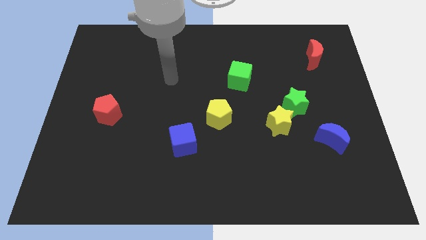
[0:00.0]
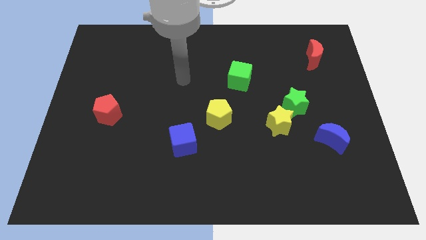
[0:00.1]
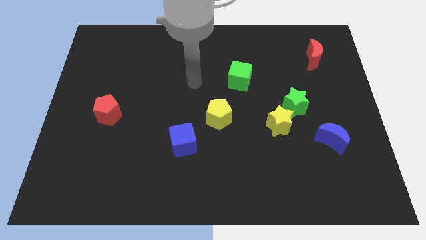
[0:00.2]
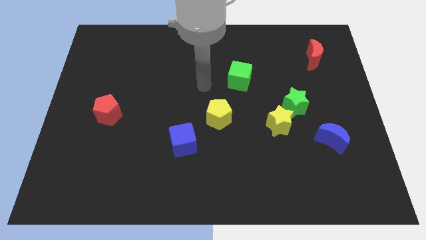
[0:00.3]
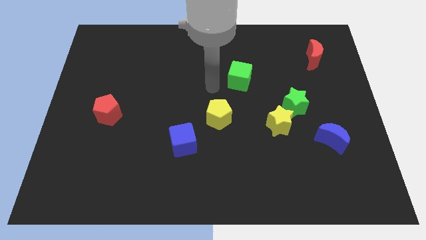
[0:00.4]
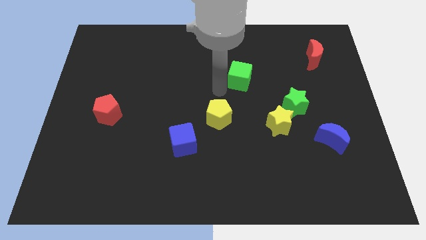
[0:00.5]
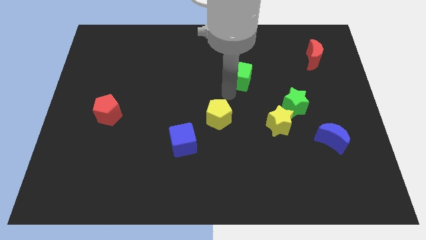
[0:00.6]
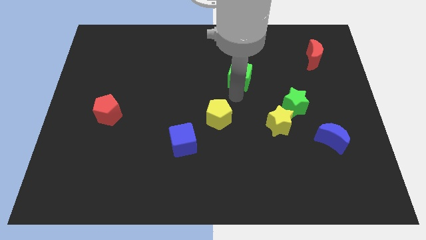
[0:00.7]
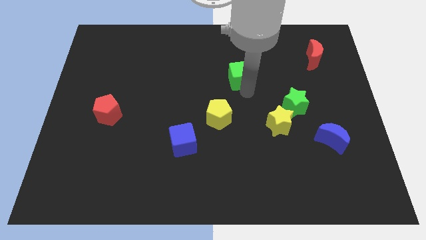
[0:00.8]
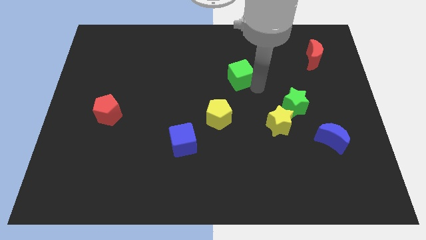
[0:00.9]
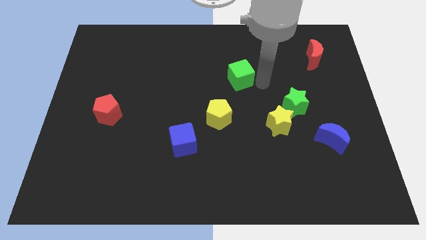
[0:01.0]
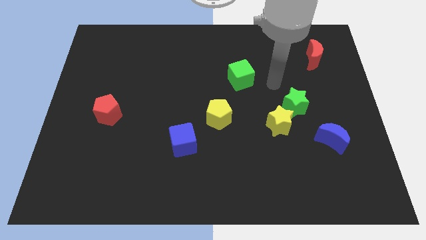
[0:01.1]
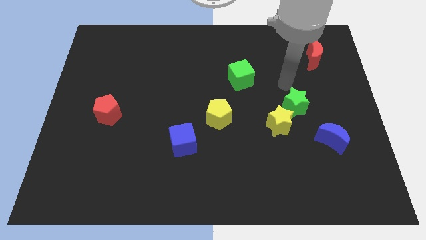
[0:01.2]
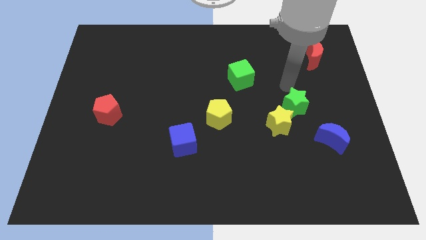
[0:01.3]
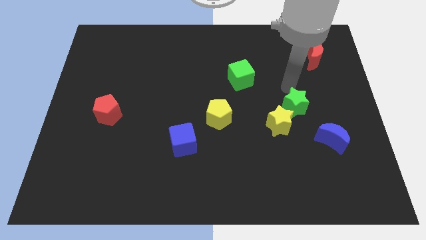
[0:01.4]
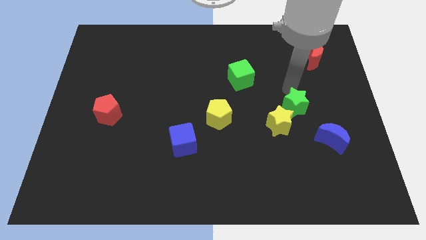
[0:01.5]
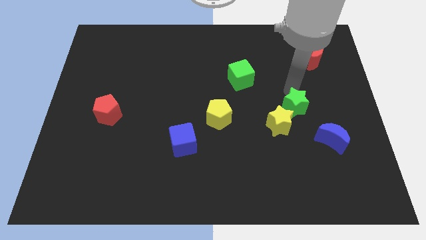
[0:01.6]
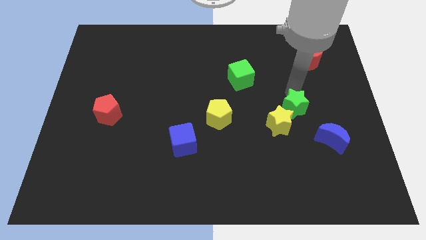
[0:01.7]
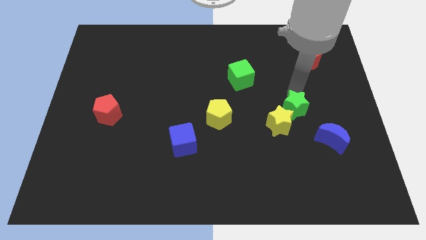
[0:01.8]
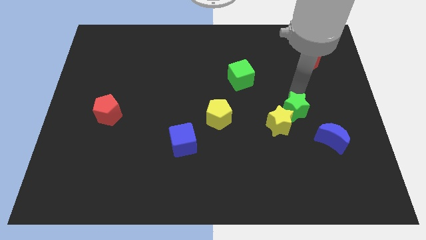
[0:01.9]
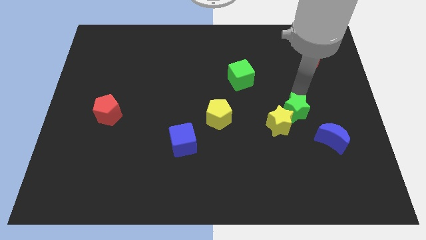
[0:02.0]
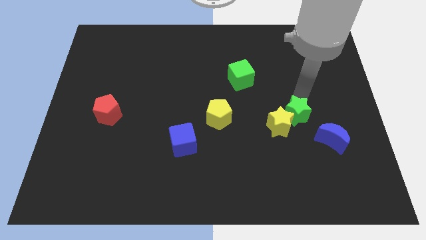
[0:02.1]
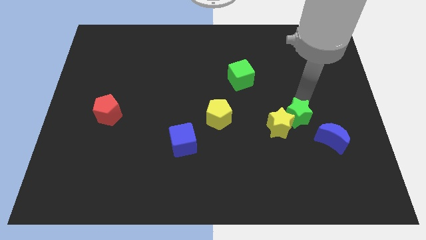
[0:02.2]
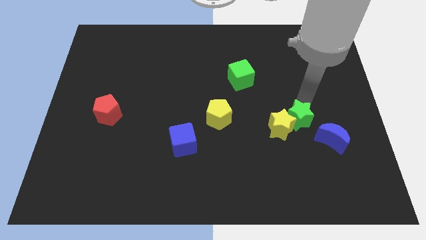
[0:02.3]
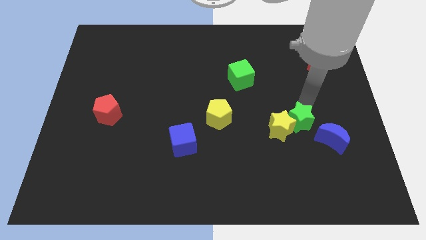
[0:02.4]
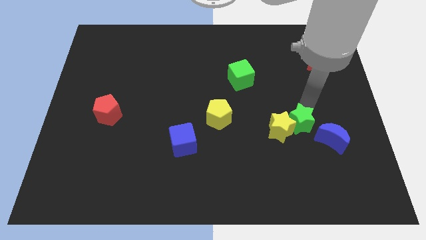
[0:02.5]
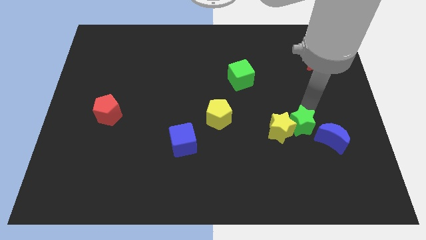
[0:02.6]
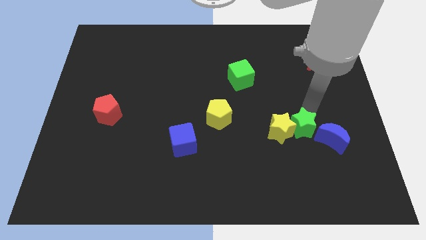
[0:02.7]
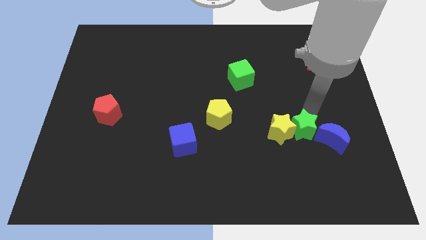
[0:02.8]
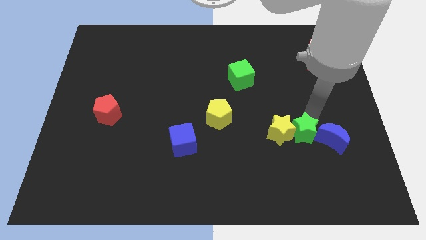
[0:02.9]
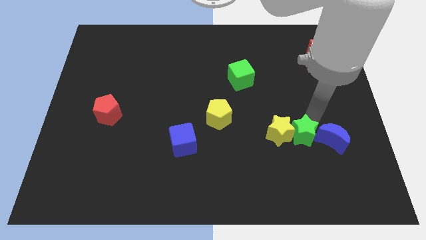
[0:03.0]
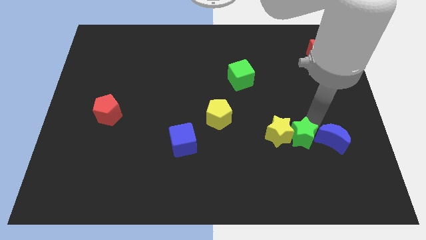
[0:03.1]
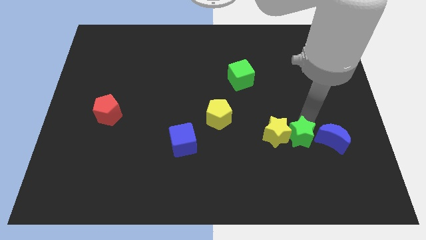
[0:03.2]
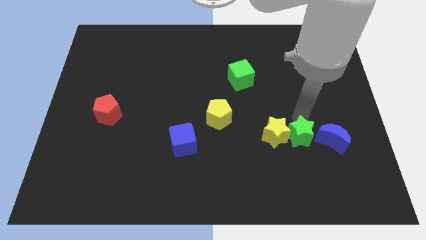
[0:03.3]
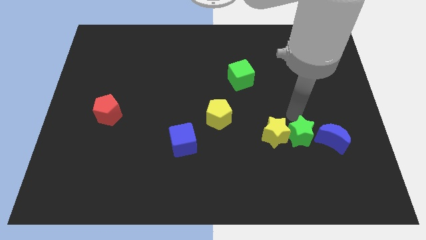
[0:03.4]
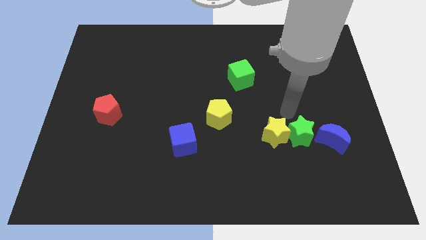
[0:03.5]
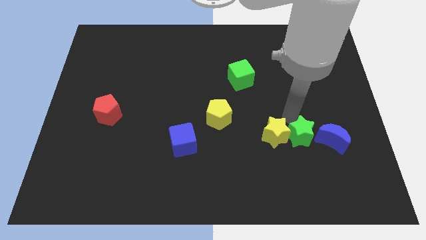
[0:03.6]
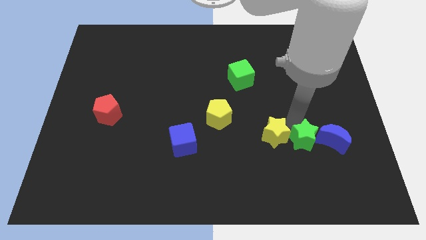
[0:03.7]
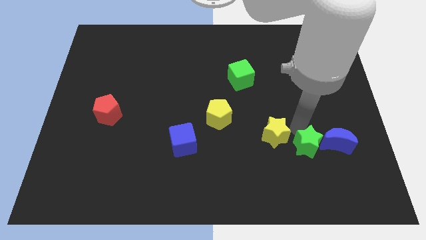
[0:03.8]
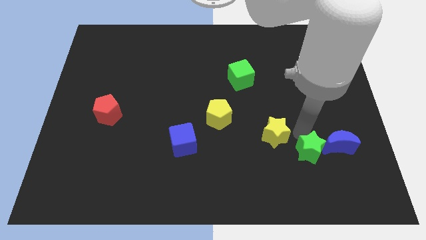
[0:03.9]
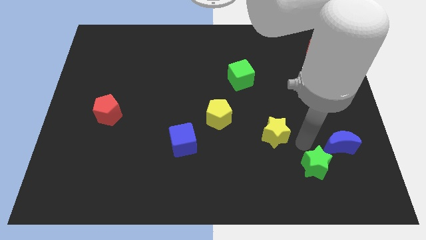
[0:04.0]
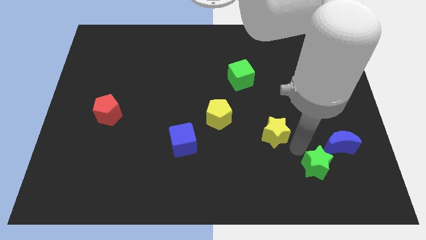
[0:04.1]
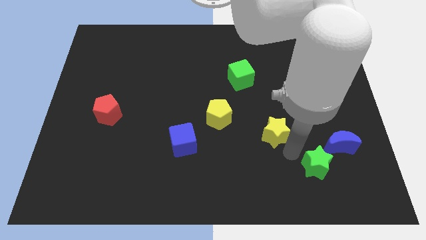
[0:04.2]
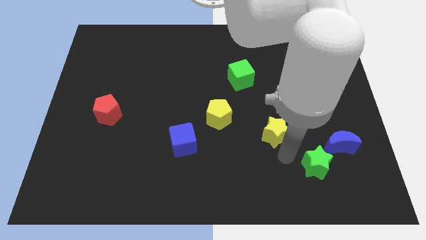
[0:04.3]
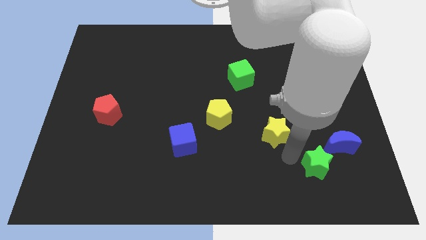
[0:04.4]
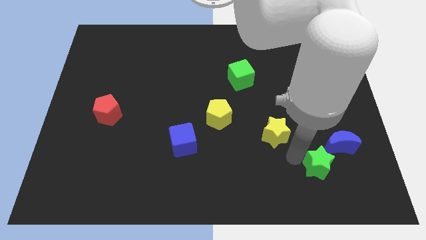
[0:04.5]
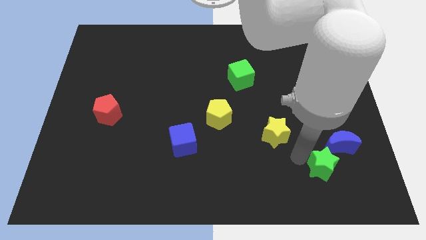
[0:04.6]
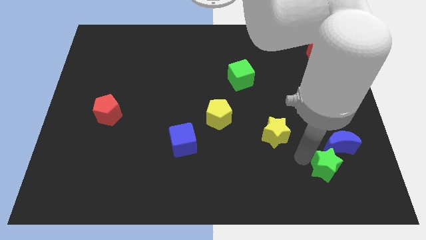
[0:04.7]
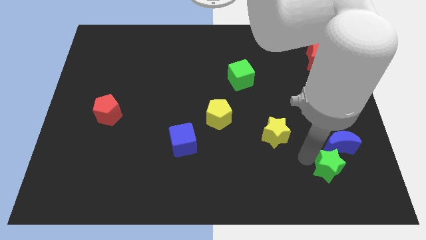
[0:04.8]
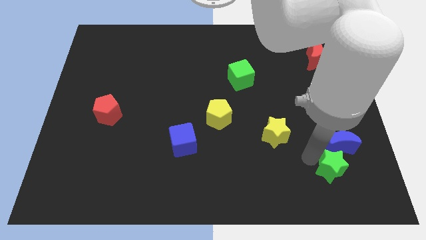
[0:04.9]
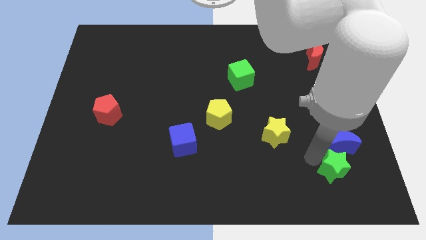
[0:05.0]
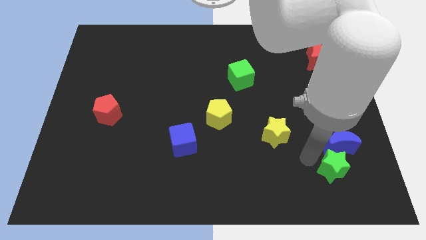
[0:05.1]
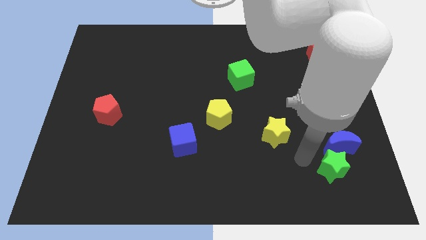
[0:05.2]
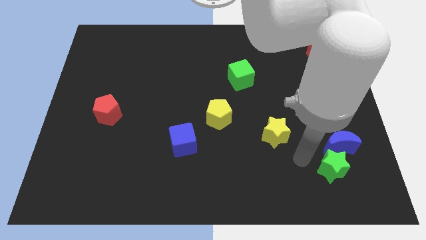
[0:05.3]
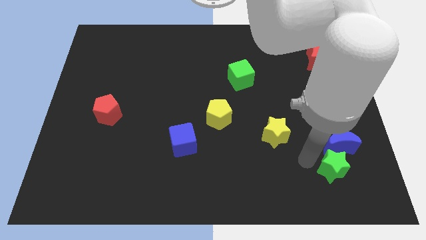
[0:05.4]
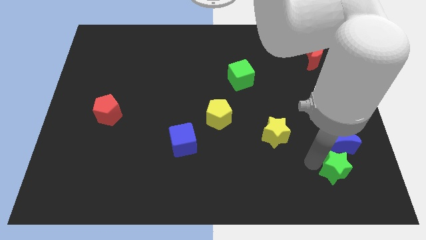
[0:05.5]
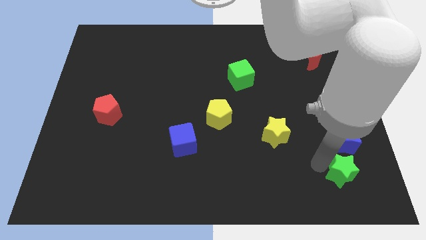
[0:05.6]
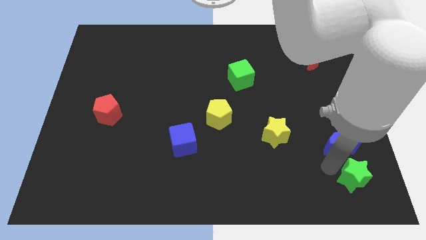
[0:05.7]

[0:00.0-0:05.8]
push the green star to the bottom right corner
